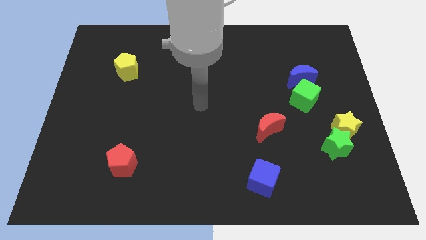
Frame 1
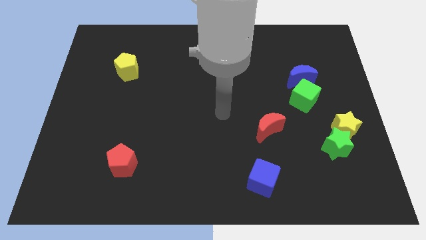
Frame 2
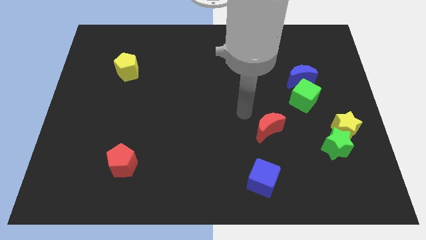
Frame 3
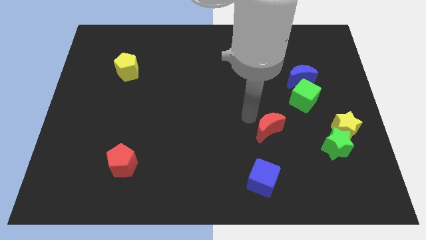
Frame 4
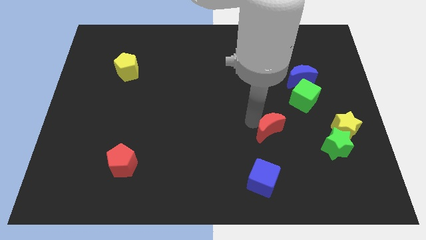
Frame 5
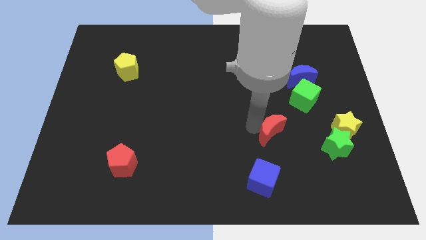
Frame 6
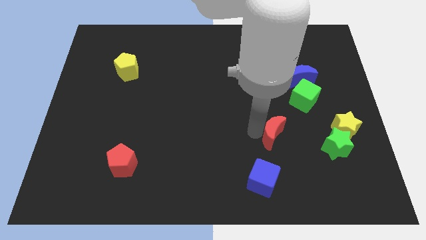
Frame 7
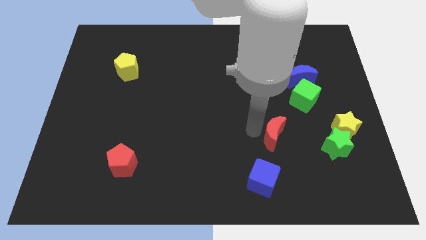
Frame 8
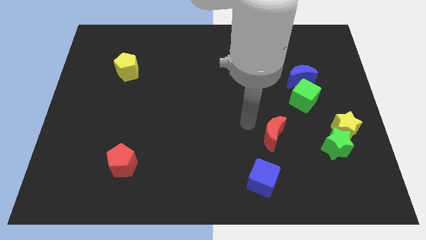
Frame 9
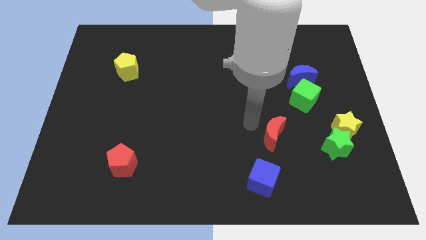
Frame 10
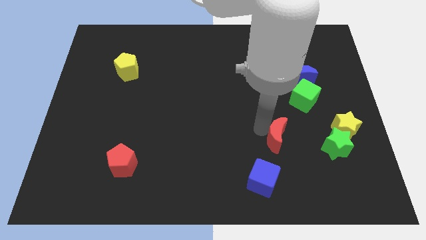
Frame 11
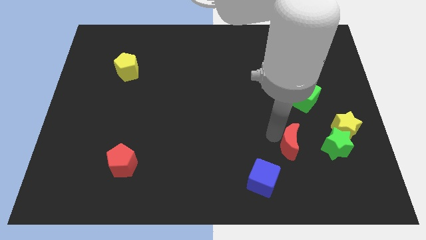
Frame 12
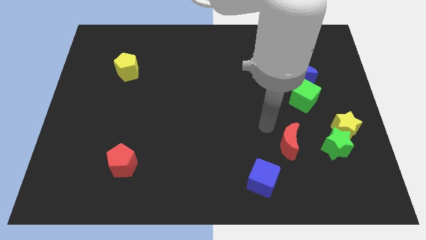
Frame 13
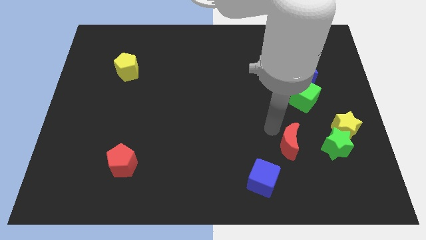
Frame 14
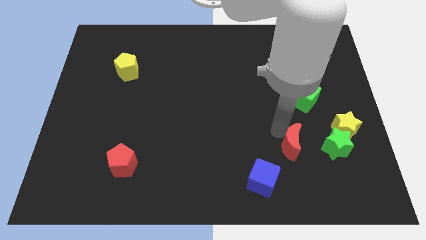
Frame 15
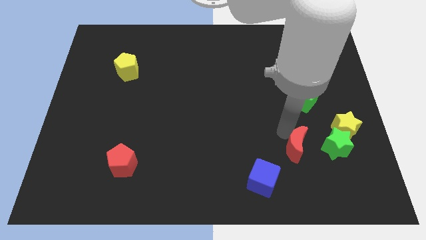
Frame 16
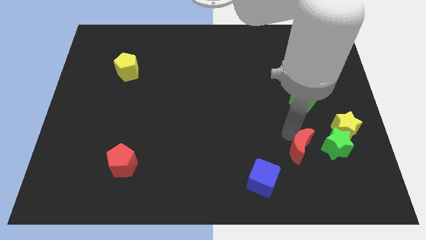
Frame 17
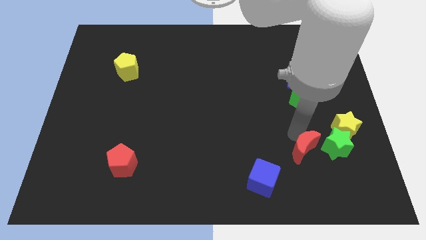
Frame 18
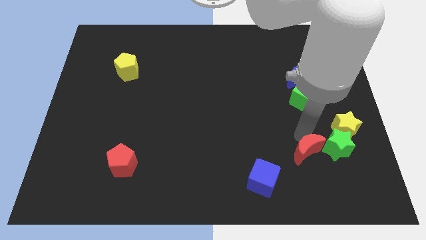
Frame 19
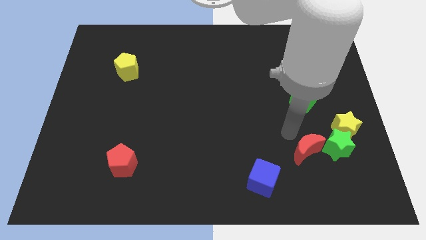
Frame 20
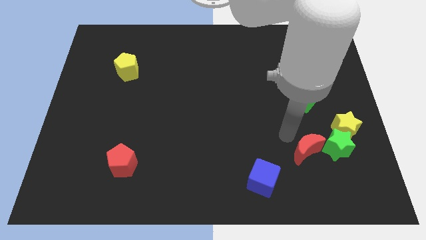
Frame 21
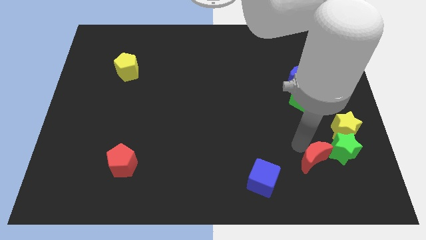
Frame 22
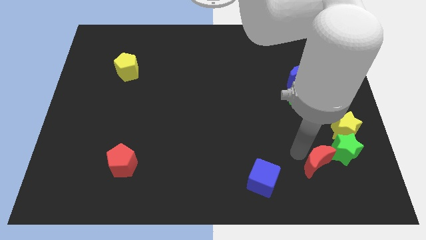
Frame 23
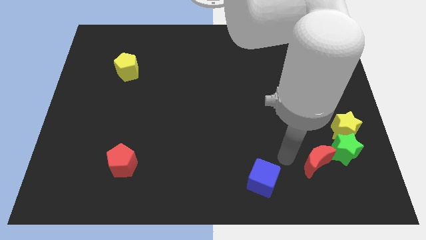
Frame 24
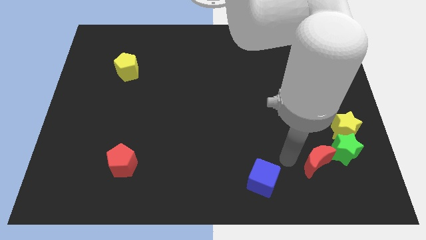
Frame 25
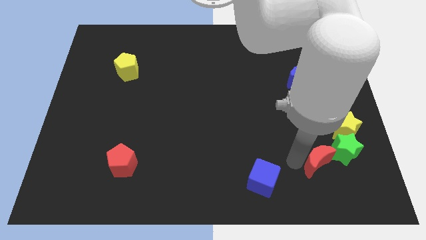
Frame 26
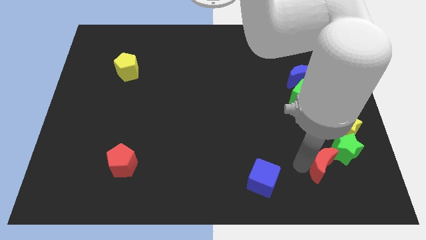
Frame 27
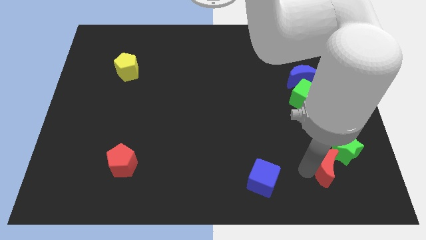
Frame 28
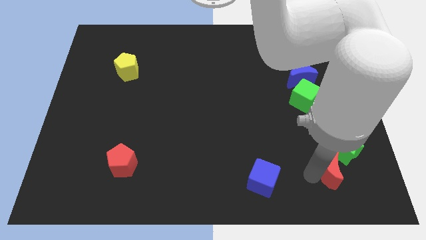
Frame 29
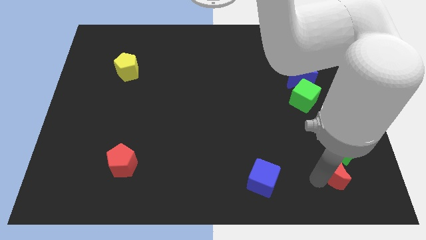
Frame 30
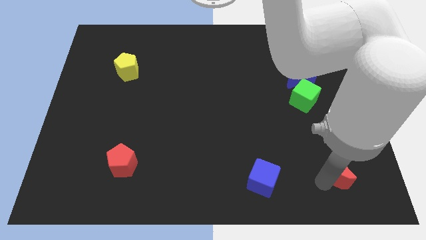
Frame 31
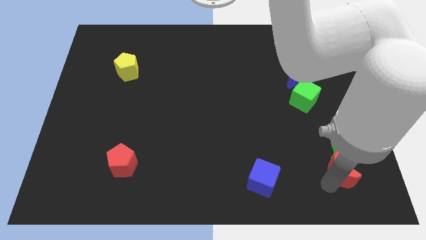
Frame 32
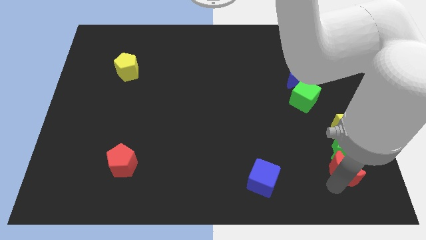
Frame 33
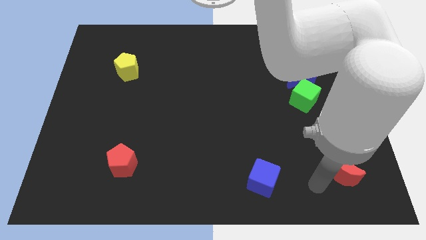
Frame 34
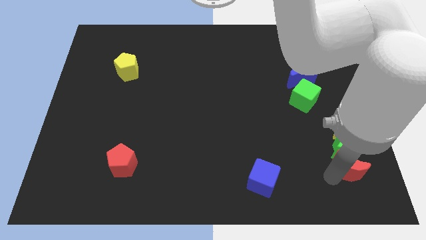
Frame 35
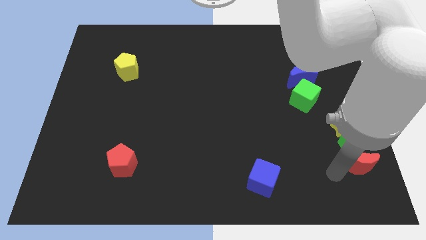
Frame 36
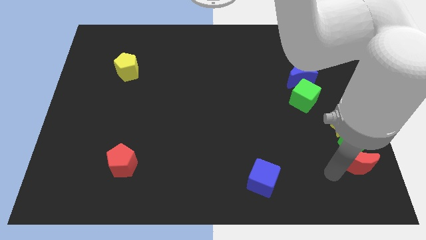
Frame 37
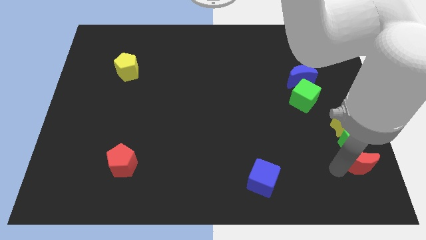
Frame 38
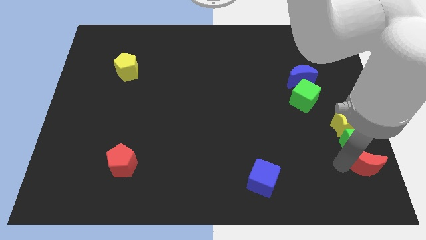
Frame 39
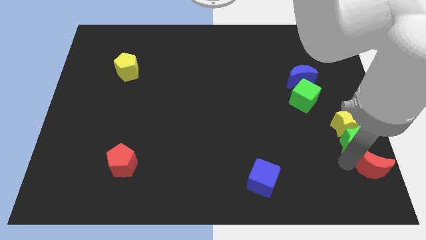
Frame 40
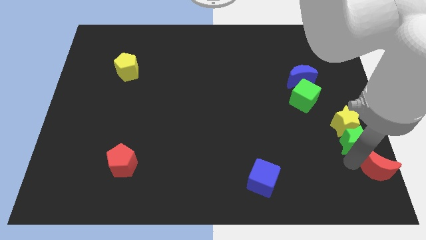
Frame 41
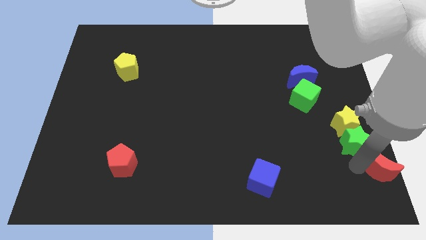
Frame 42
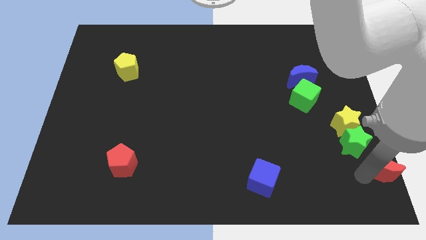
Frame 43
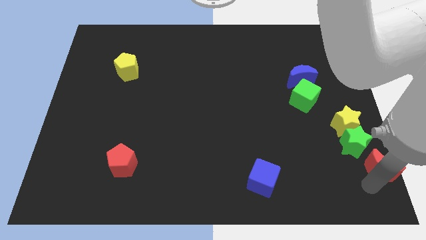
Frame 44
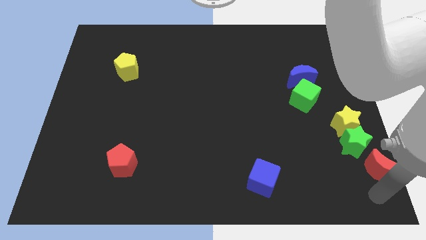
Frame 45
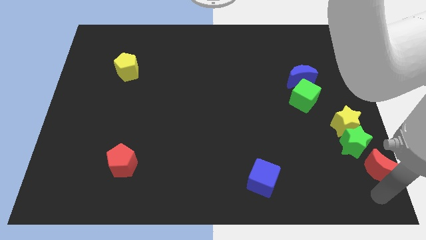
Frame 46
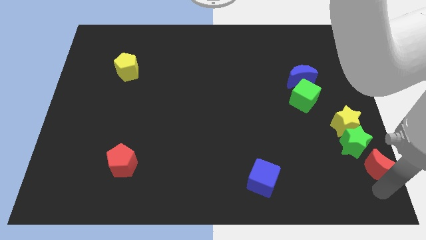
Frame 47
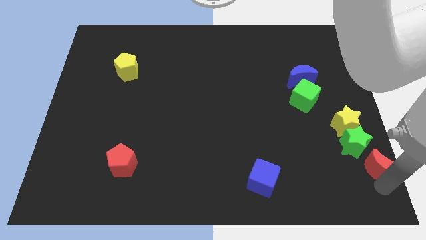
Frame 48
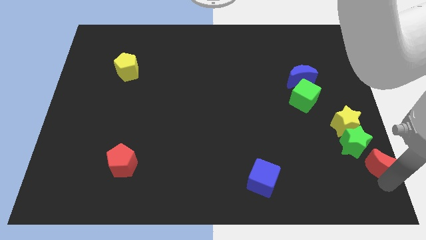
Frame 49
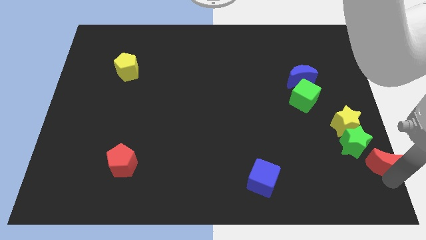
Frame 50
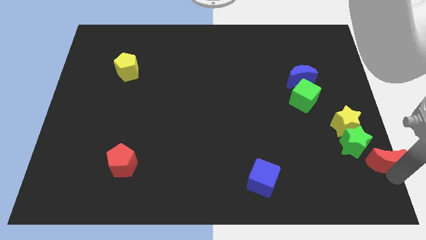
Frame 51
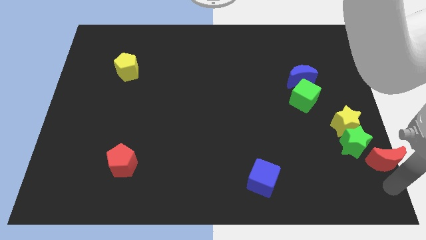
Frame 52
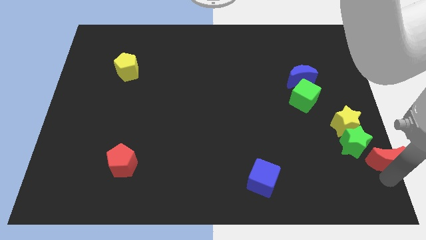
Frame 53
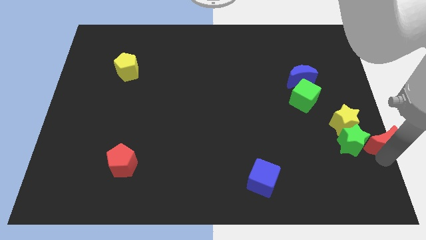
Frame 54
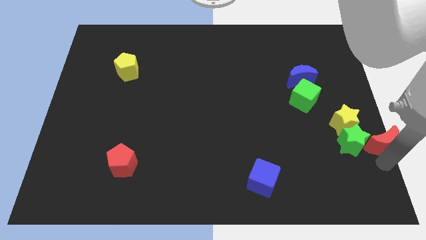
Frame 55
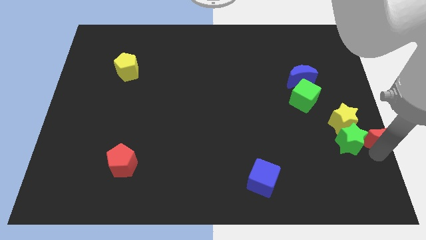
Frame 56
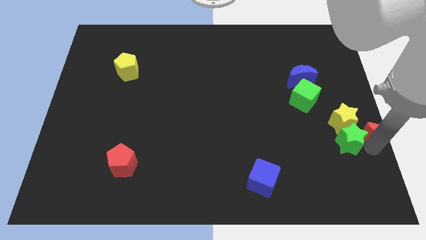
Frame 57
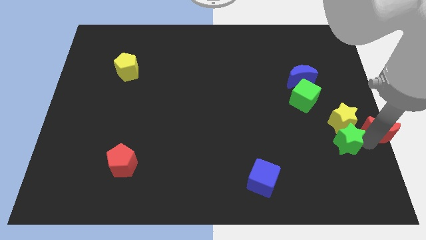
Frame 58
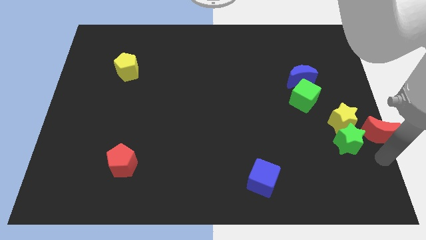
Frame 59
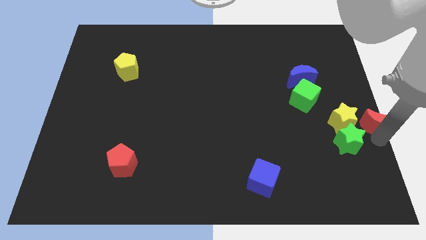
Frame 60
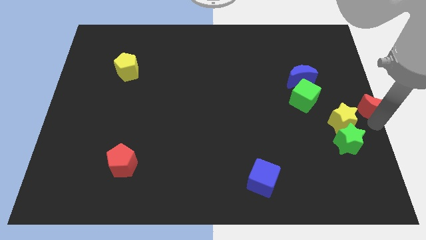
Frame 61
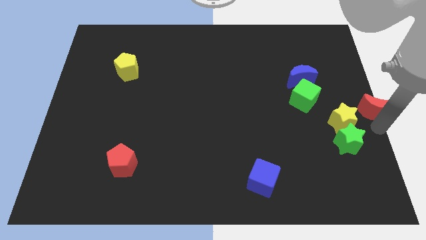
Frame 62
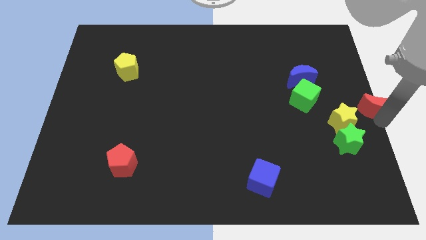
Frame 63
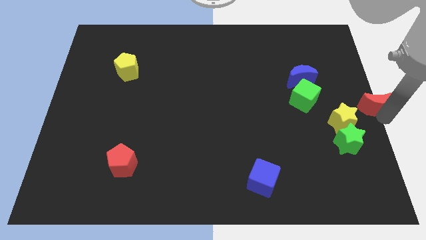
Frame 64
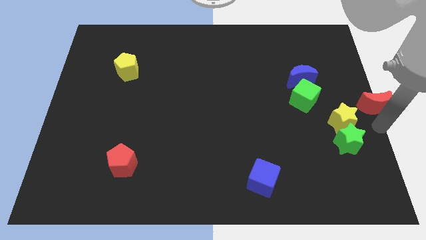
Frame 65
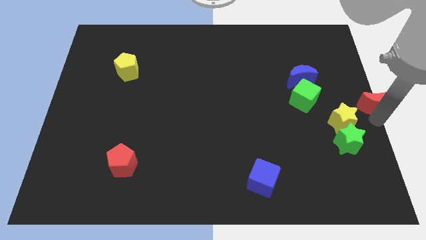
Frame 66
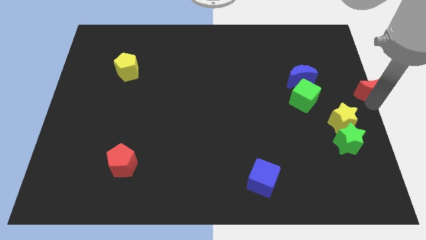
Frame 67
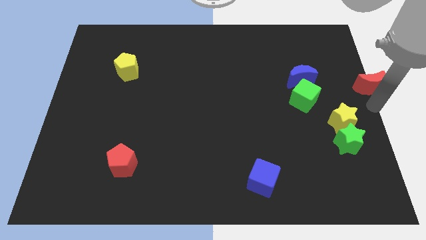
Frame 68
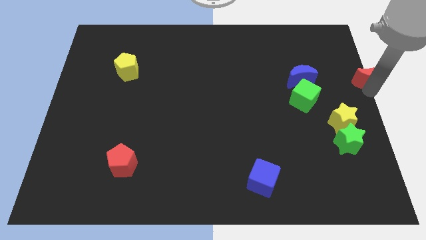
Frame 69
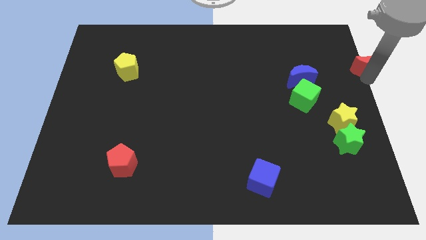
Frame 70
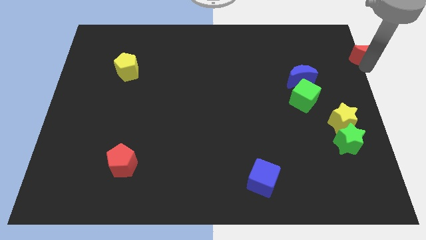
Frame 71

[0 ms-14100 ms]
move the red moon to the top right of the board

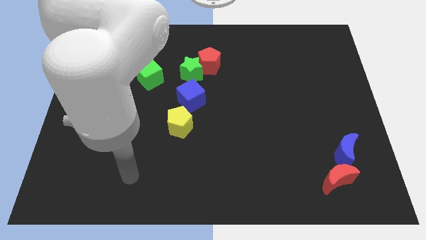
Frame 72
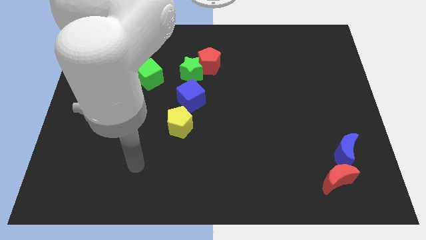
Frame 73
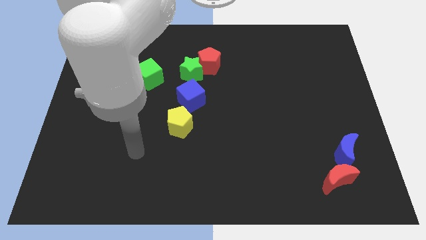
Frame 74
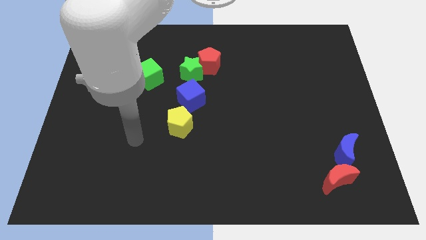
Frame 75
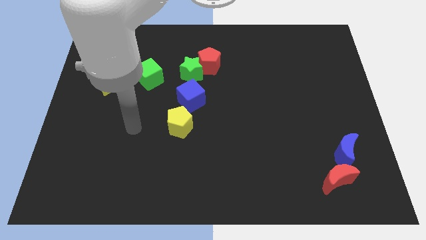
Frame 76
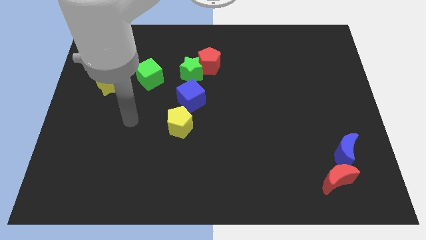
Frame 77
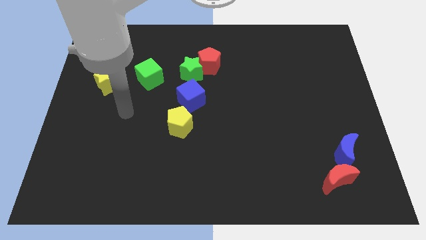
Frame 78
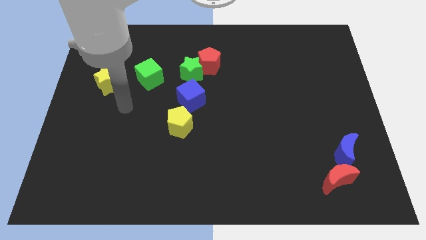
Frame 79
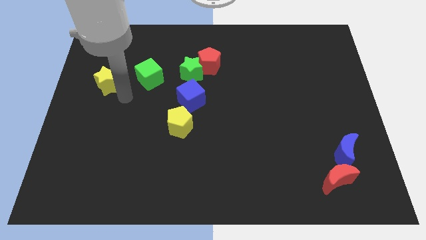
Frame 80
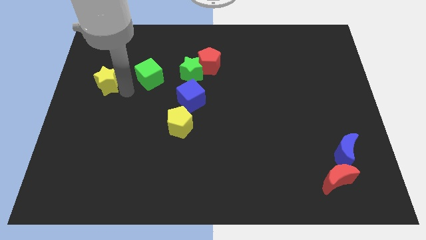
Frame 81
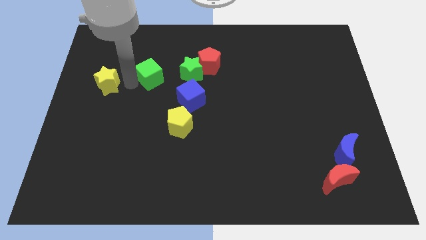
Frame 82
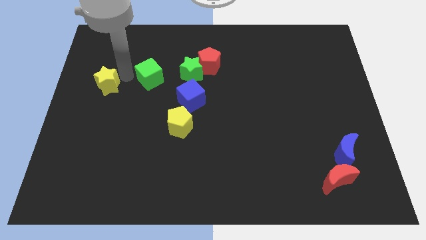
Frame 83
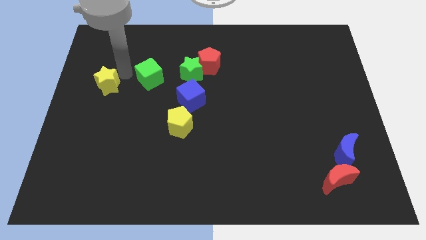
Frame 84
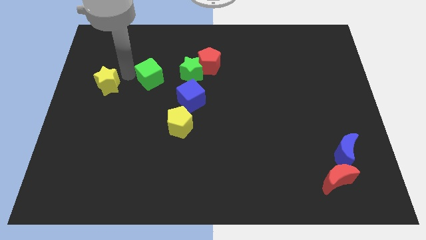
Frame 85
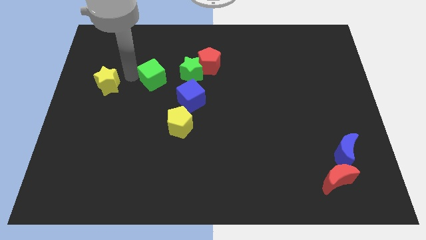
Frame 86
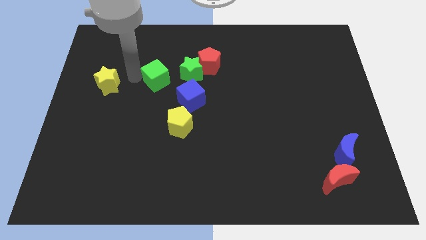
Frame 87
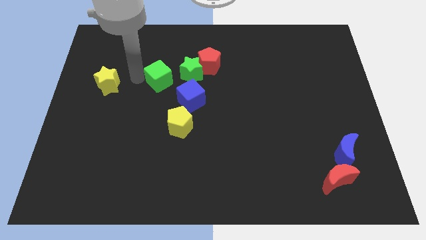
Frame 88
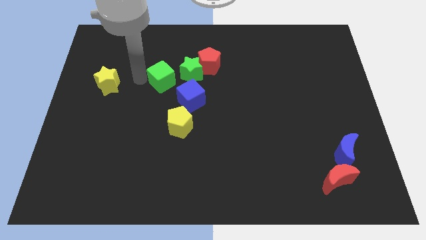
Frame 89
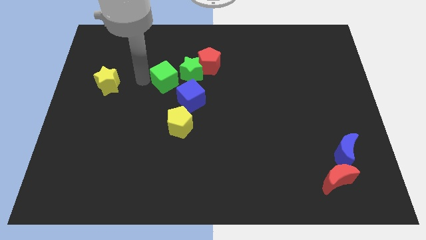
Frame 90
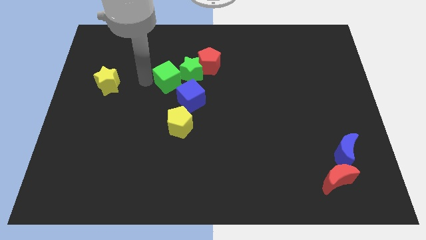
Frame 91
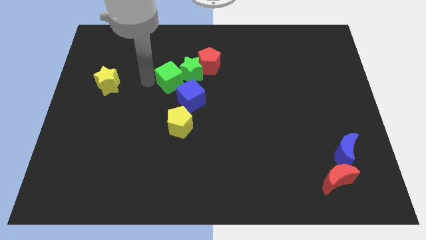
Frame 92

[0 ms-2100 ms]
put the green cube to the center
